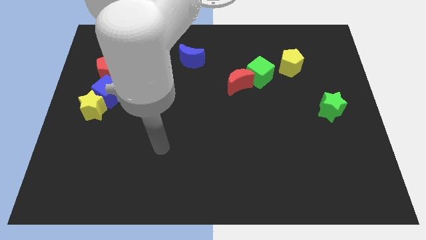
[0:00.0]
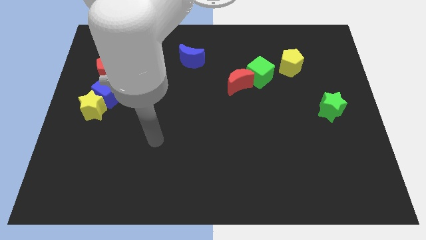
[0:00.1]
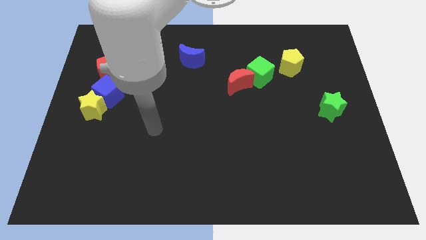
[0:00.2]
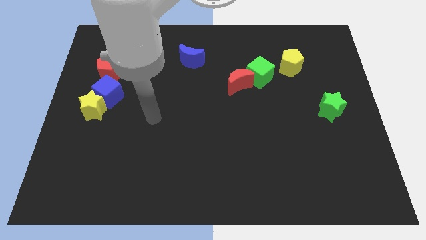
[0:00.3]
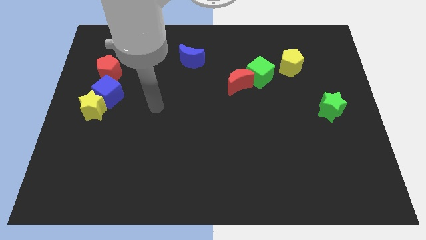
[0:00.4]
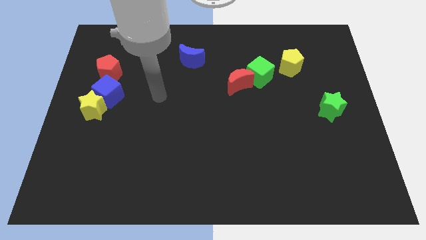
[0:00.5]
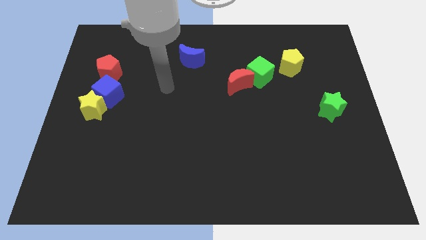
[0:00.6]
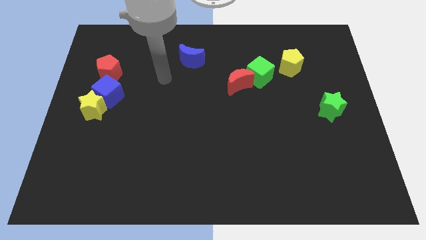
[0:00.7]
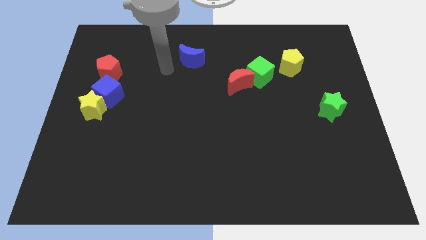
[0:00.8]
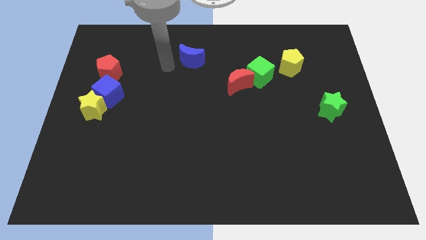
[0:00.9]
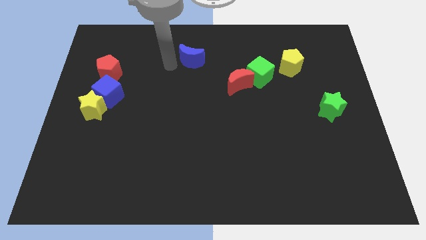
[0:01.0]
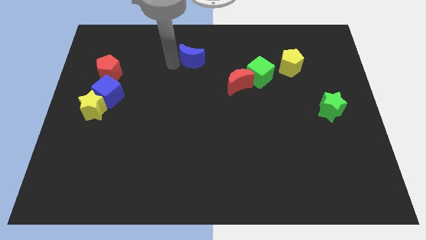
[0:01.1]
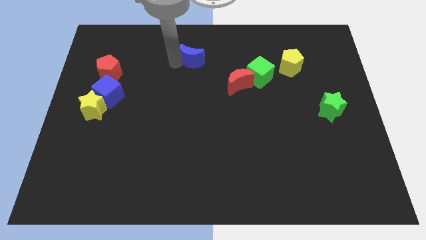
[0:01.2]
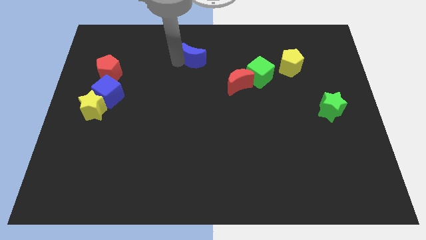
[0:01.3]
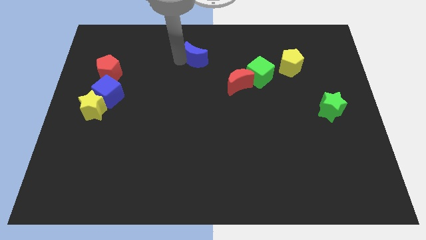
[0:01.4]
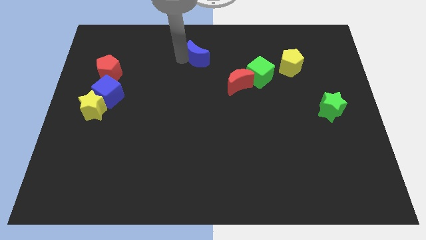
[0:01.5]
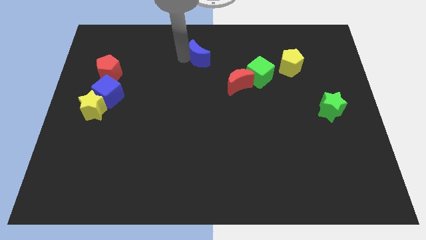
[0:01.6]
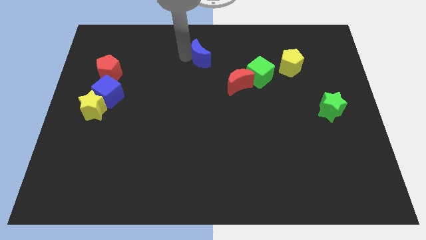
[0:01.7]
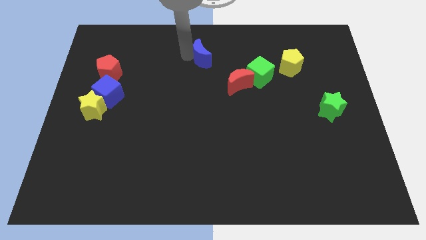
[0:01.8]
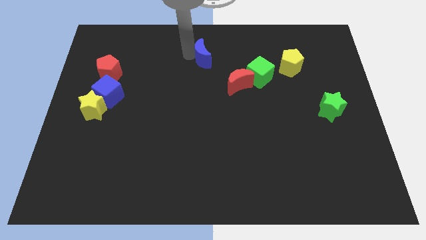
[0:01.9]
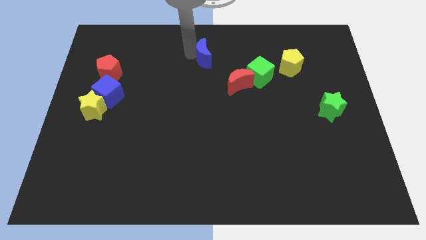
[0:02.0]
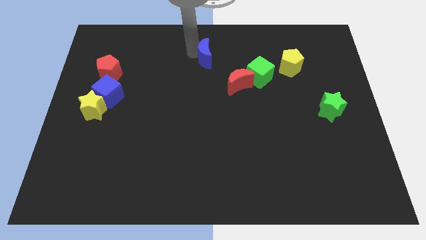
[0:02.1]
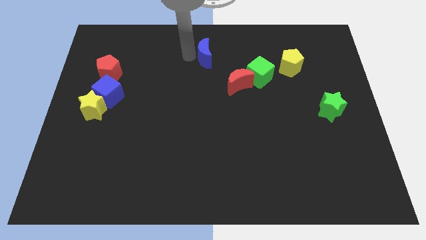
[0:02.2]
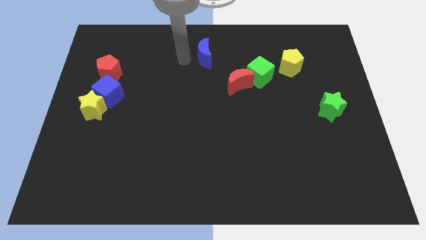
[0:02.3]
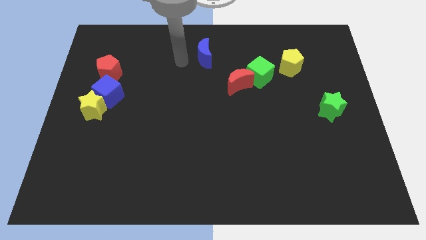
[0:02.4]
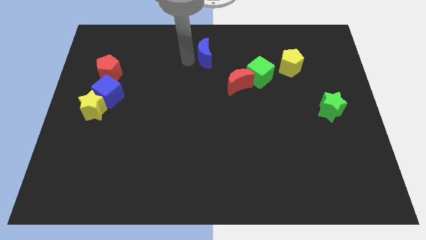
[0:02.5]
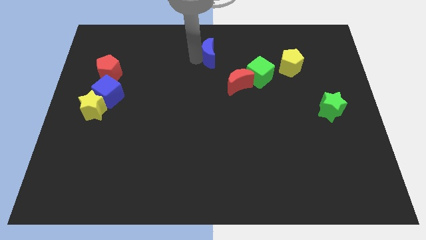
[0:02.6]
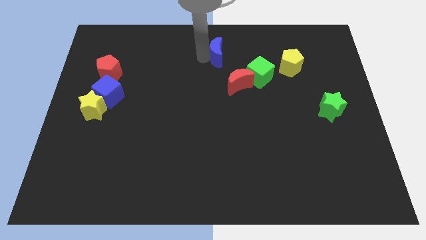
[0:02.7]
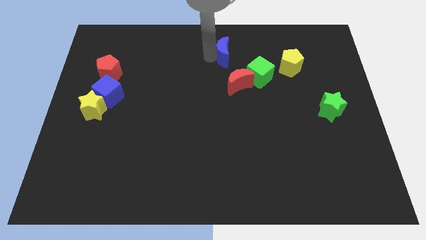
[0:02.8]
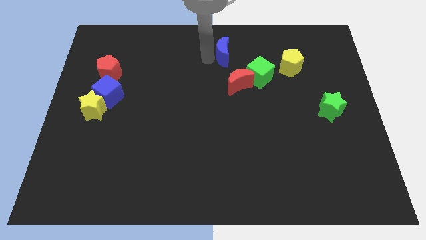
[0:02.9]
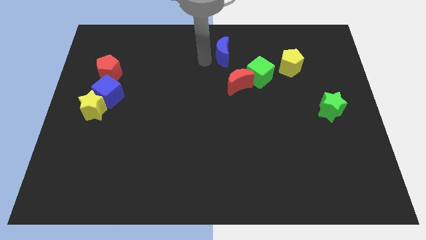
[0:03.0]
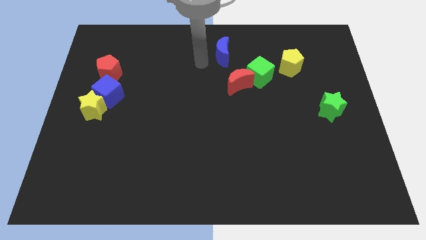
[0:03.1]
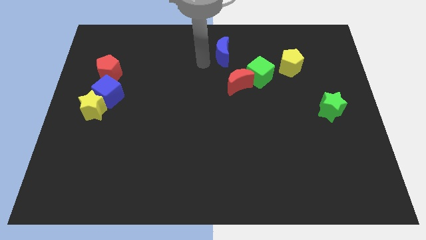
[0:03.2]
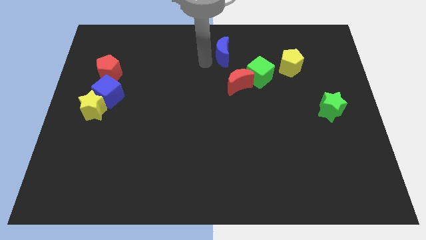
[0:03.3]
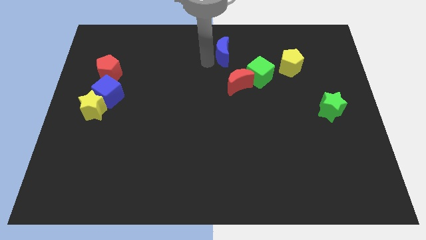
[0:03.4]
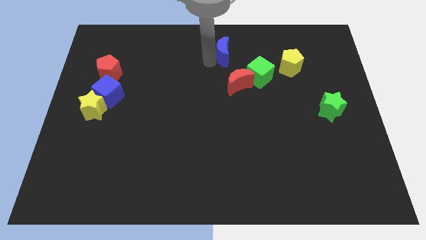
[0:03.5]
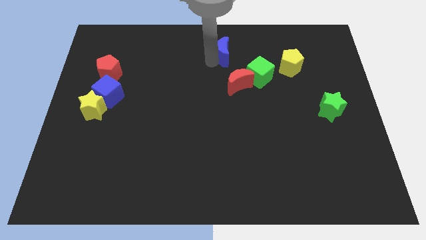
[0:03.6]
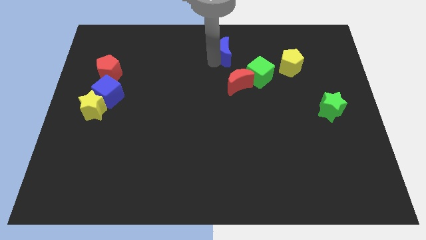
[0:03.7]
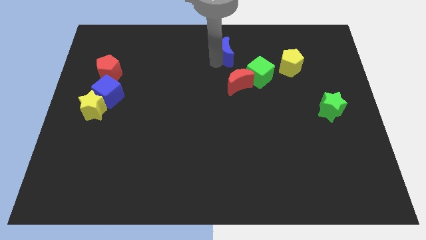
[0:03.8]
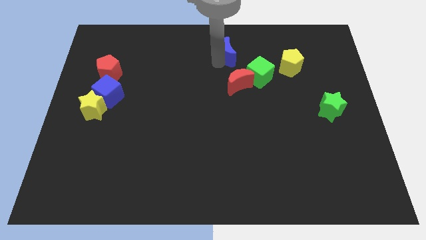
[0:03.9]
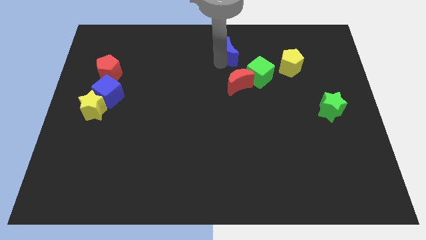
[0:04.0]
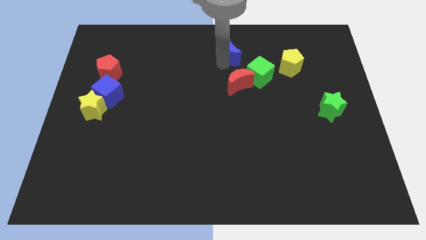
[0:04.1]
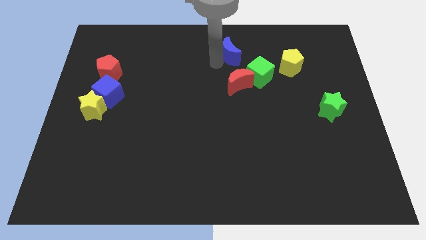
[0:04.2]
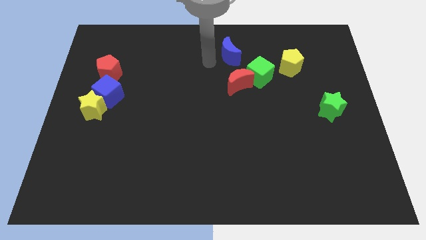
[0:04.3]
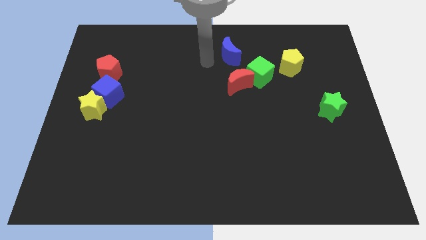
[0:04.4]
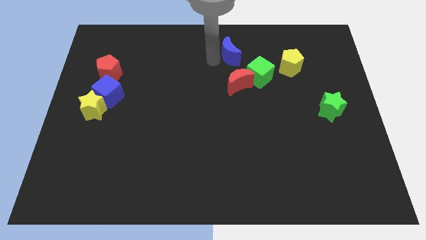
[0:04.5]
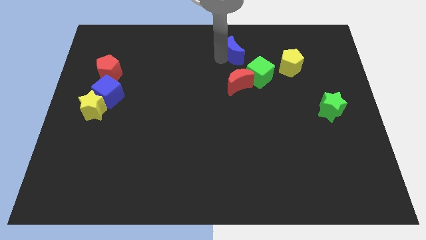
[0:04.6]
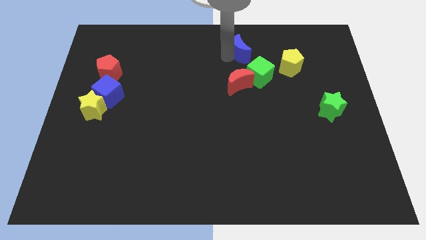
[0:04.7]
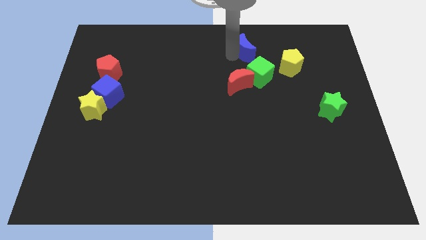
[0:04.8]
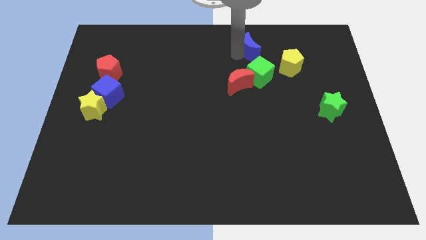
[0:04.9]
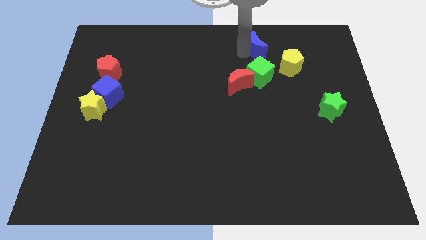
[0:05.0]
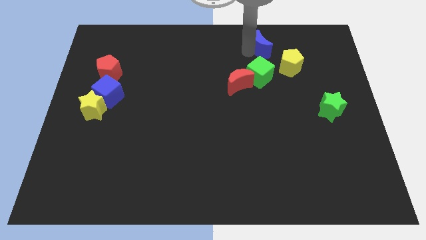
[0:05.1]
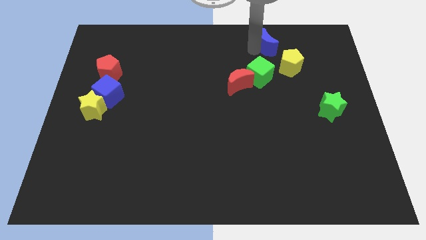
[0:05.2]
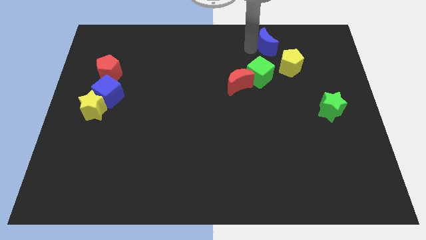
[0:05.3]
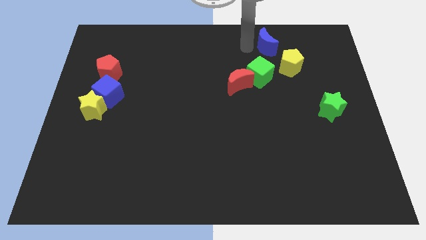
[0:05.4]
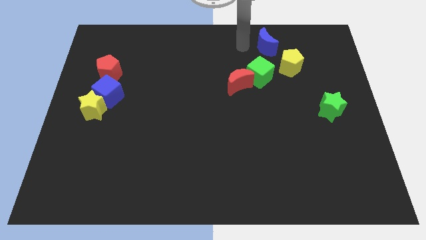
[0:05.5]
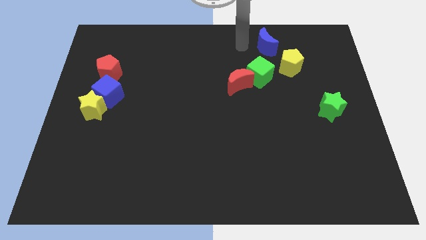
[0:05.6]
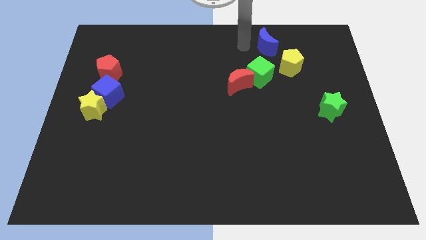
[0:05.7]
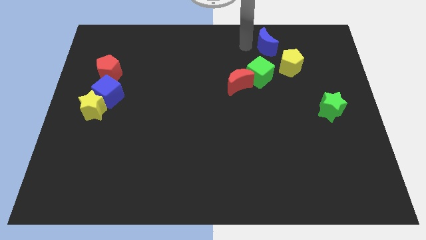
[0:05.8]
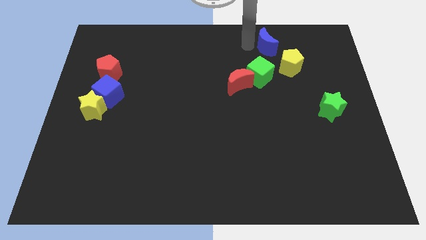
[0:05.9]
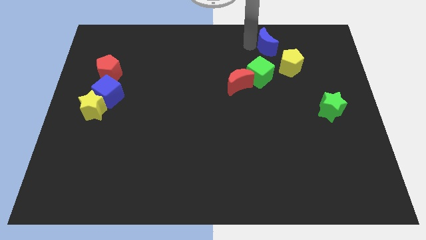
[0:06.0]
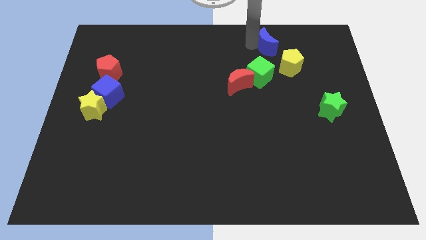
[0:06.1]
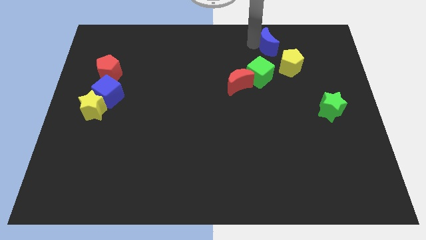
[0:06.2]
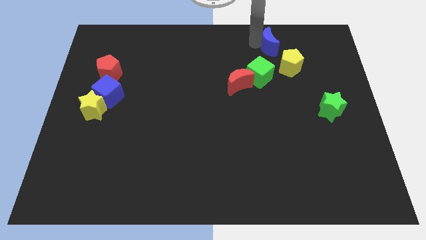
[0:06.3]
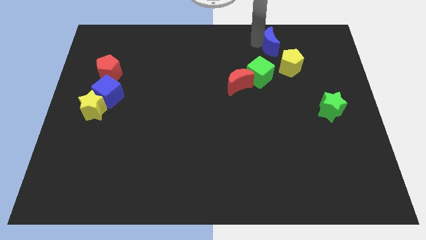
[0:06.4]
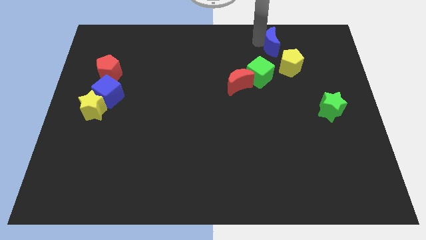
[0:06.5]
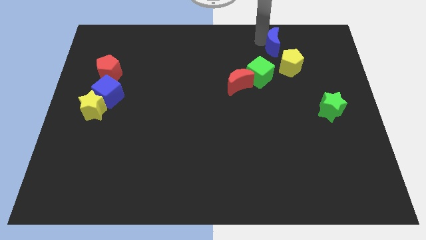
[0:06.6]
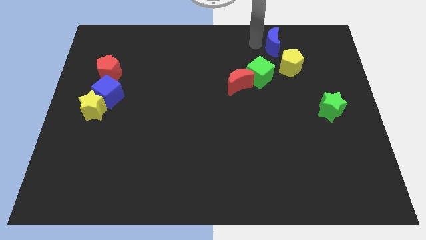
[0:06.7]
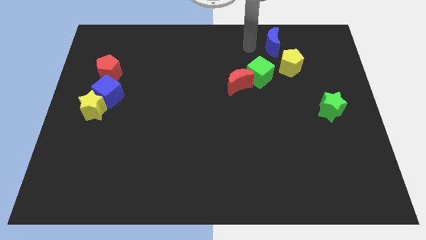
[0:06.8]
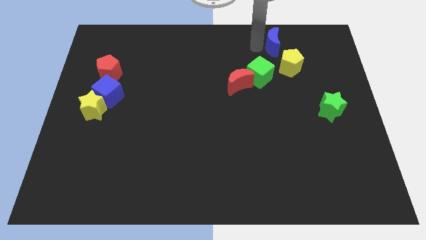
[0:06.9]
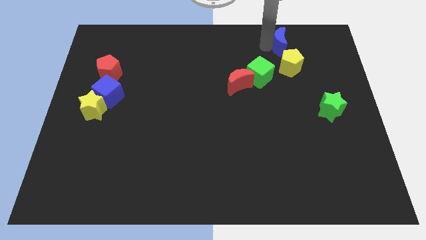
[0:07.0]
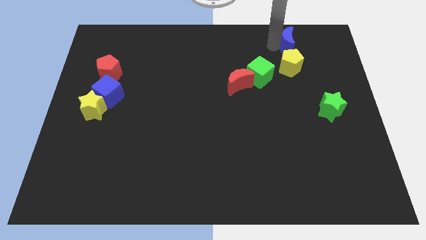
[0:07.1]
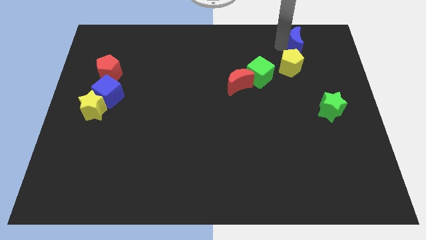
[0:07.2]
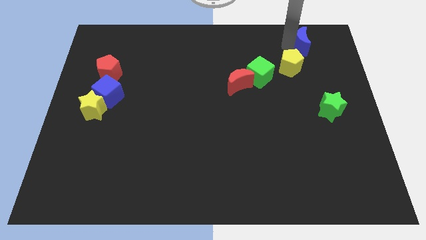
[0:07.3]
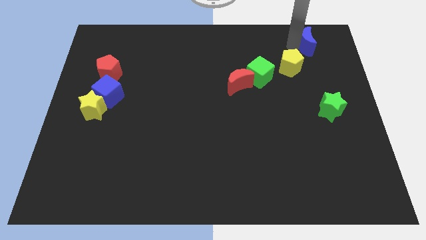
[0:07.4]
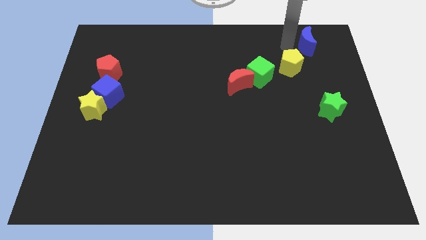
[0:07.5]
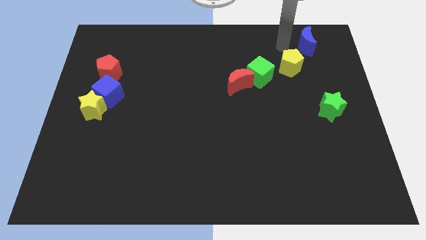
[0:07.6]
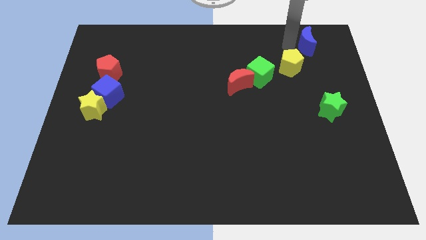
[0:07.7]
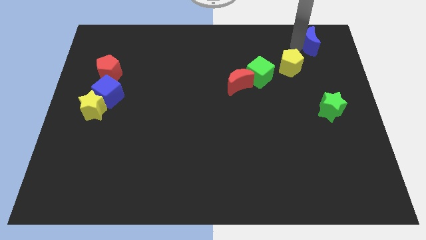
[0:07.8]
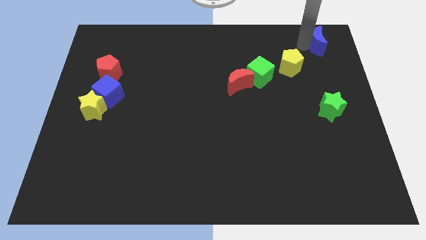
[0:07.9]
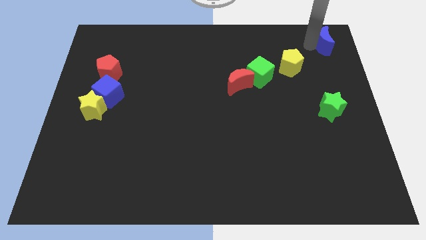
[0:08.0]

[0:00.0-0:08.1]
slide the blue moon to the upper right corner
